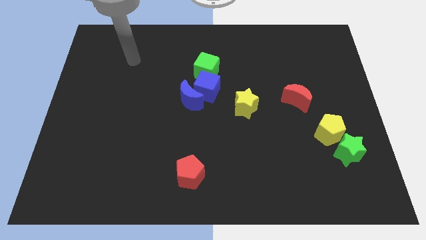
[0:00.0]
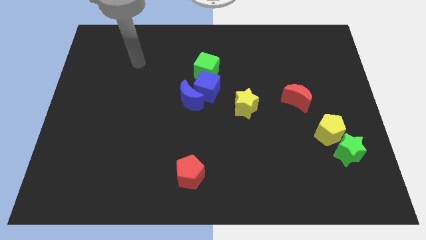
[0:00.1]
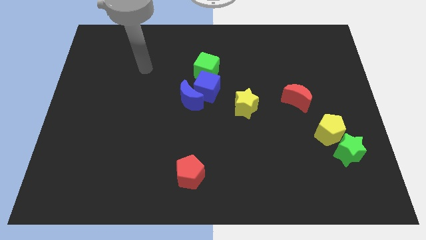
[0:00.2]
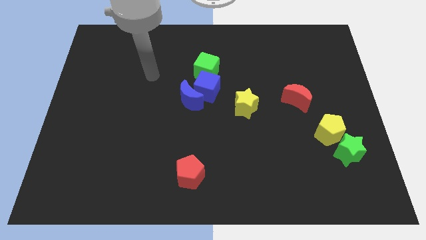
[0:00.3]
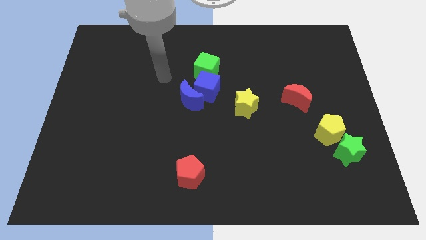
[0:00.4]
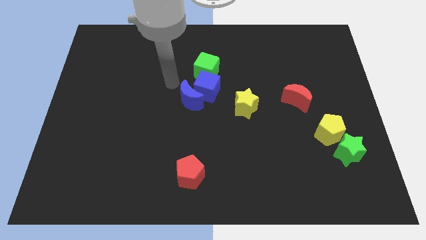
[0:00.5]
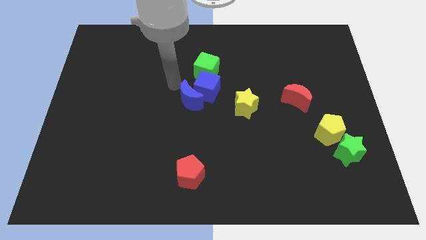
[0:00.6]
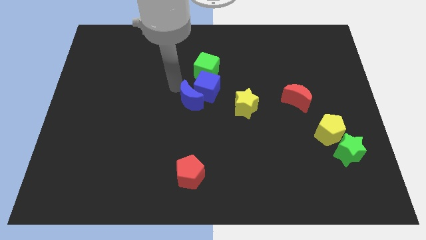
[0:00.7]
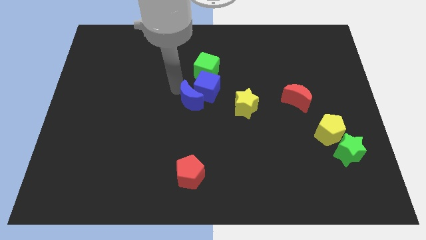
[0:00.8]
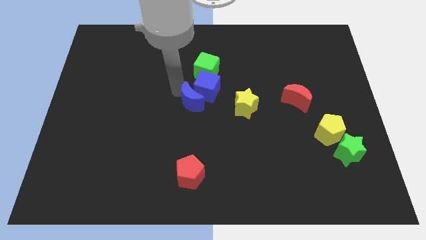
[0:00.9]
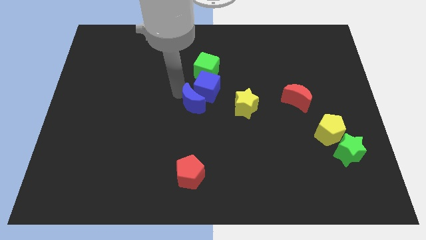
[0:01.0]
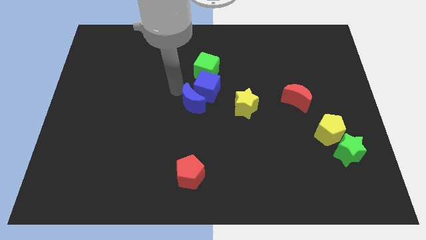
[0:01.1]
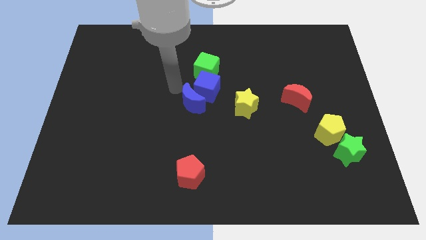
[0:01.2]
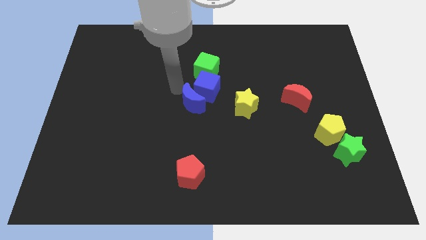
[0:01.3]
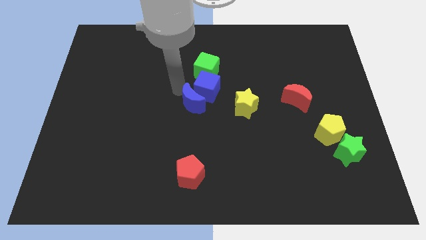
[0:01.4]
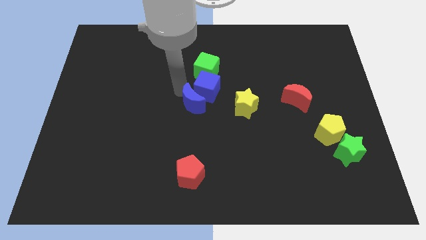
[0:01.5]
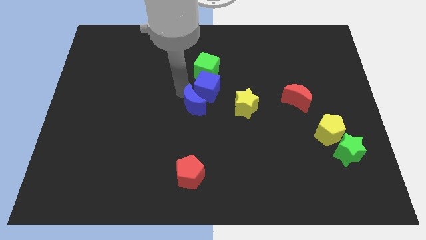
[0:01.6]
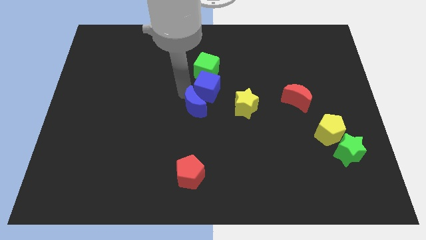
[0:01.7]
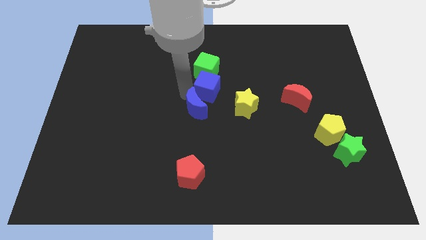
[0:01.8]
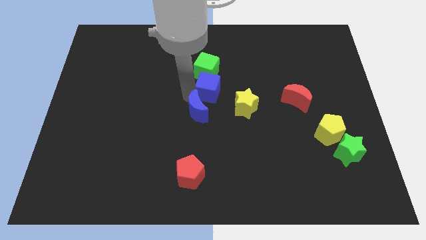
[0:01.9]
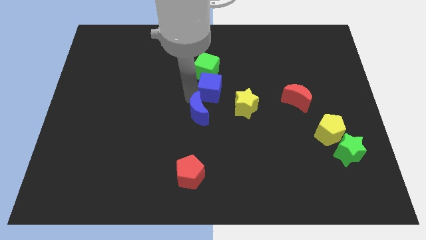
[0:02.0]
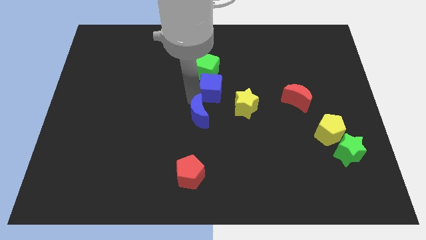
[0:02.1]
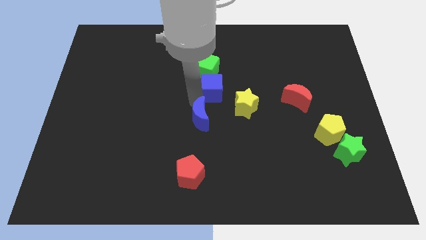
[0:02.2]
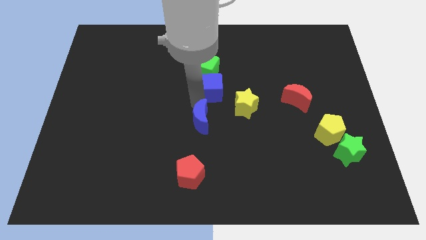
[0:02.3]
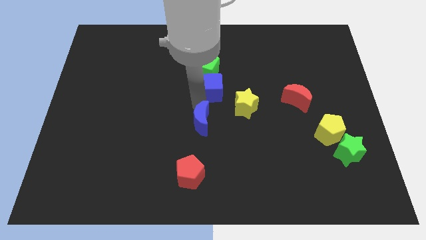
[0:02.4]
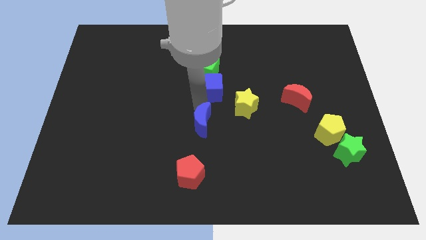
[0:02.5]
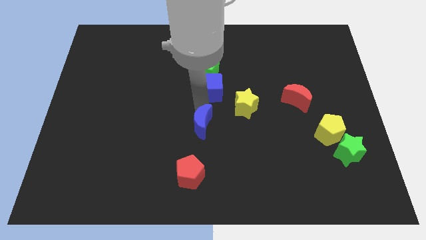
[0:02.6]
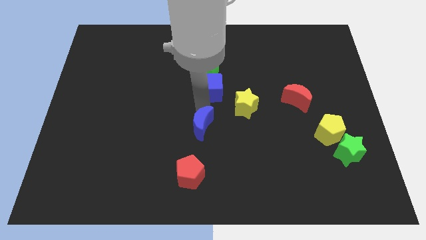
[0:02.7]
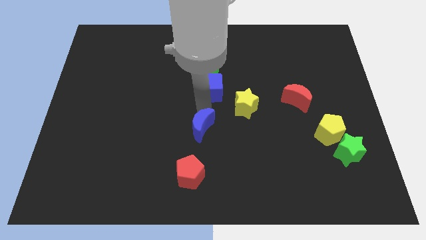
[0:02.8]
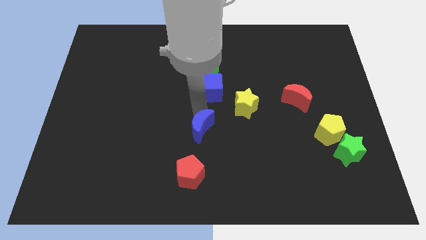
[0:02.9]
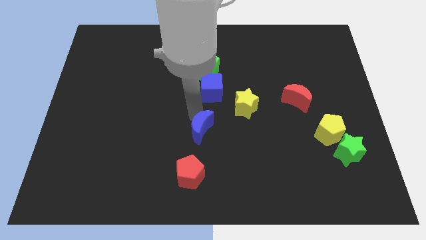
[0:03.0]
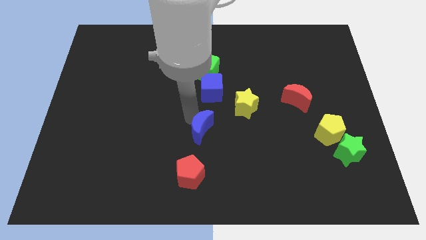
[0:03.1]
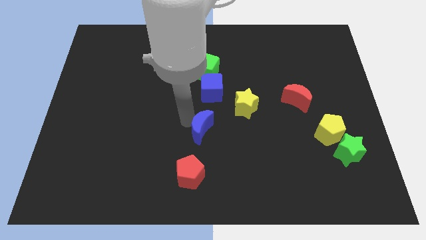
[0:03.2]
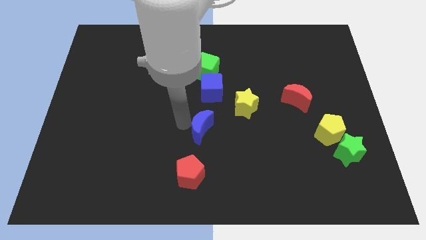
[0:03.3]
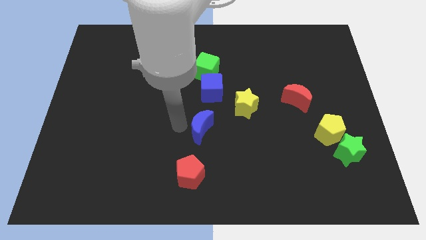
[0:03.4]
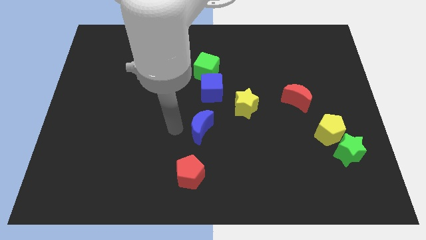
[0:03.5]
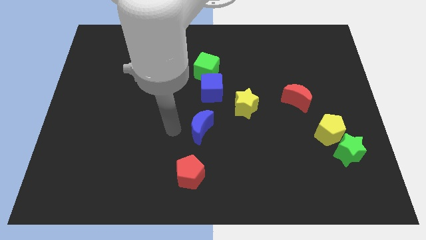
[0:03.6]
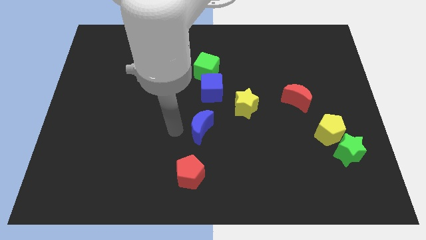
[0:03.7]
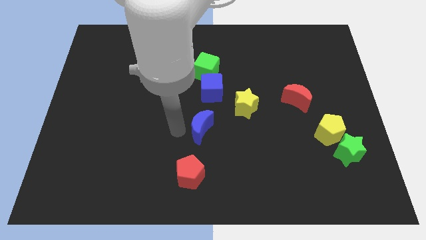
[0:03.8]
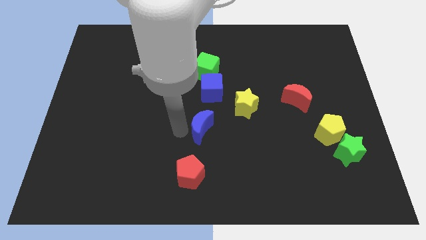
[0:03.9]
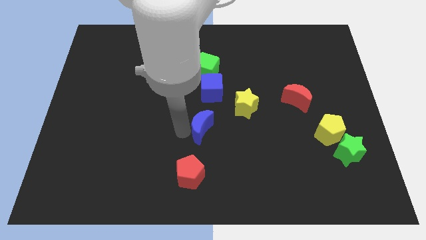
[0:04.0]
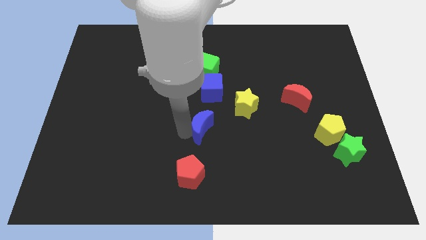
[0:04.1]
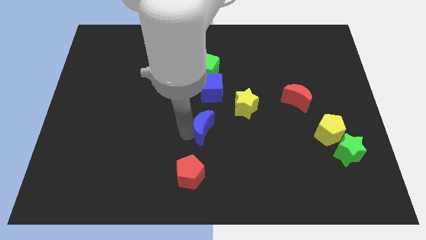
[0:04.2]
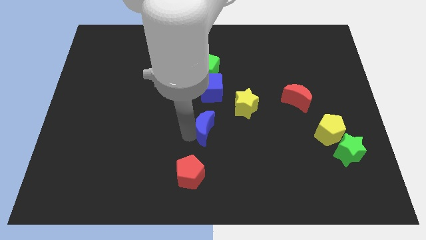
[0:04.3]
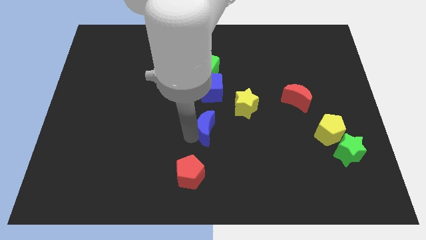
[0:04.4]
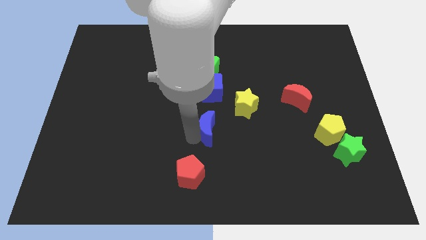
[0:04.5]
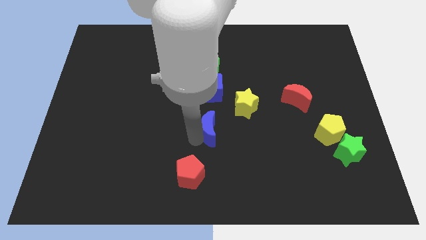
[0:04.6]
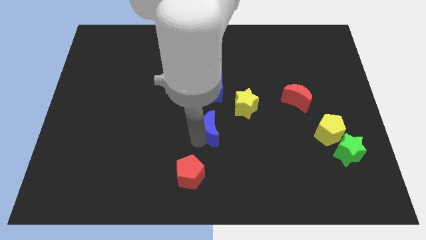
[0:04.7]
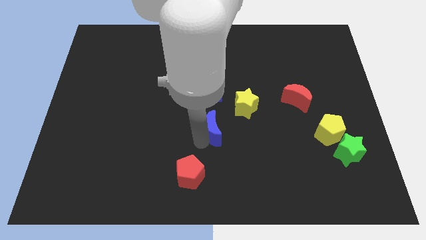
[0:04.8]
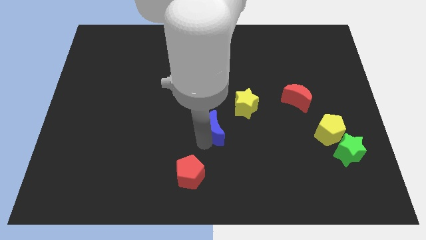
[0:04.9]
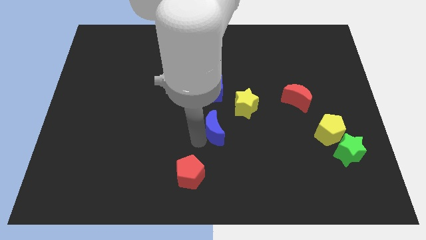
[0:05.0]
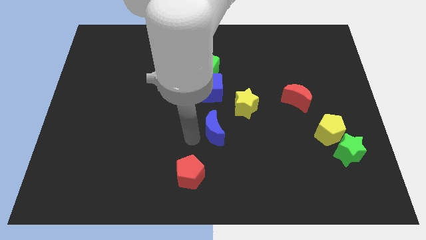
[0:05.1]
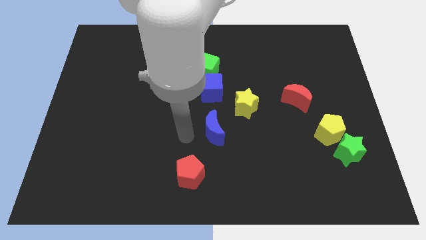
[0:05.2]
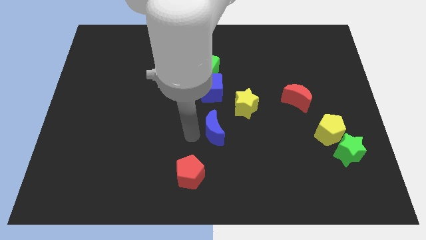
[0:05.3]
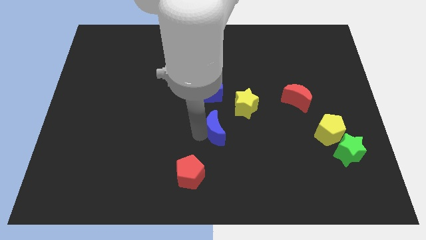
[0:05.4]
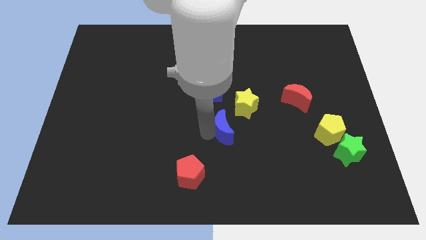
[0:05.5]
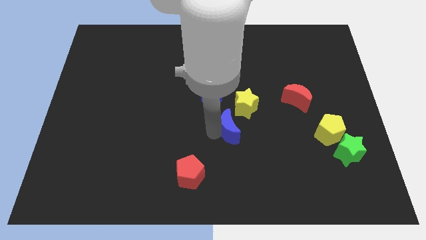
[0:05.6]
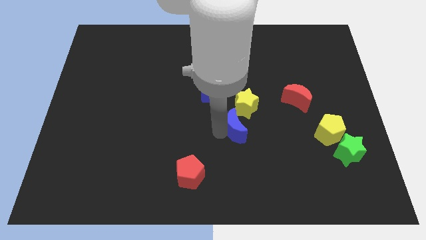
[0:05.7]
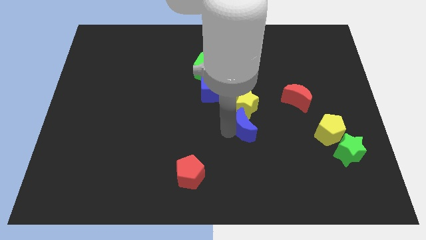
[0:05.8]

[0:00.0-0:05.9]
push the blue moon diagonally down and to the right of the yellow star

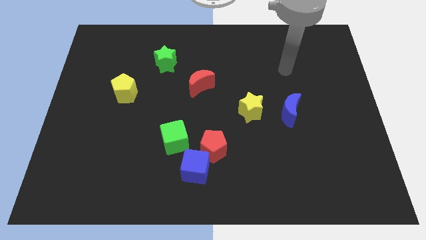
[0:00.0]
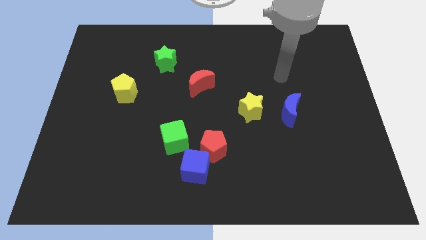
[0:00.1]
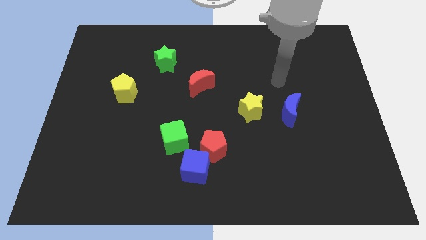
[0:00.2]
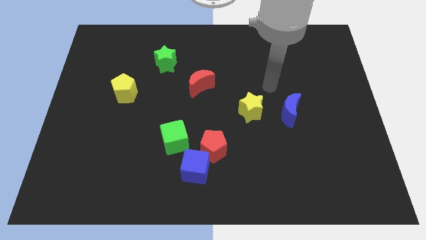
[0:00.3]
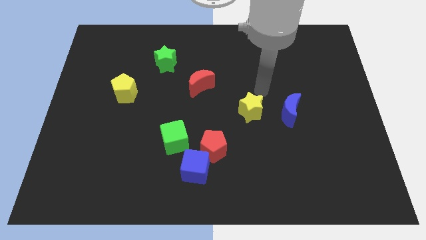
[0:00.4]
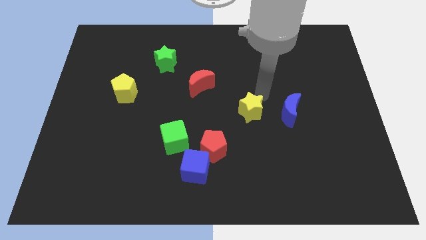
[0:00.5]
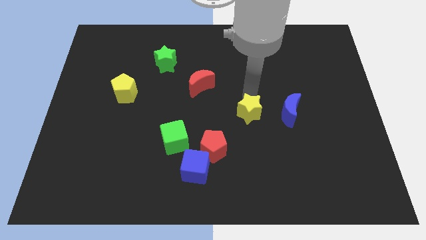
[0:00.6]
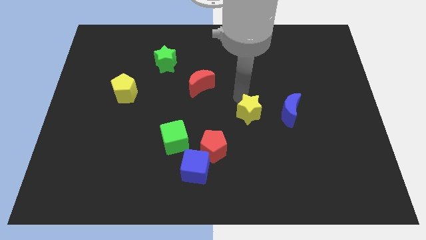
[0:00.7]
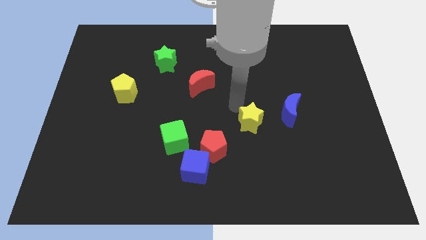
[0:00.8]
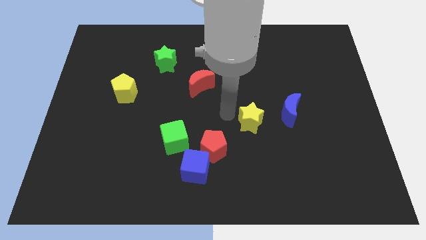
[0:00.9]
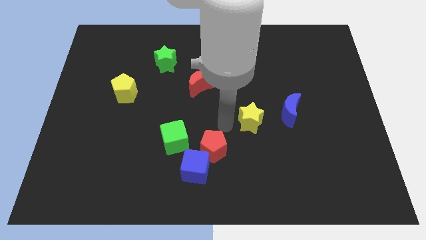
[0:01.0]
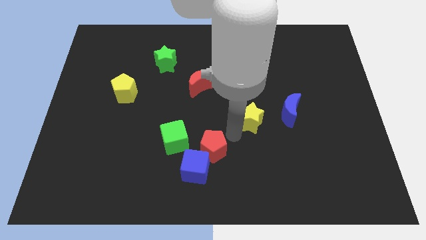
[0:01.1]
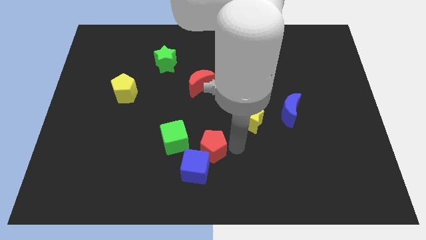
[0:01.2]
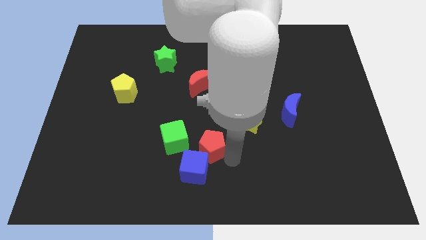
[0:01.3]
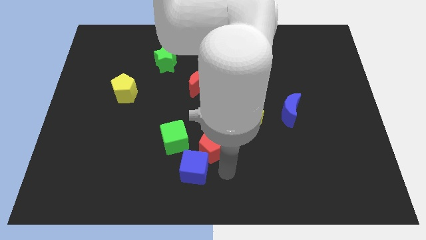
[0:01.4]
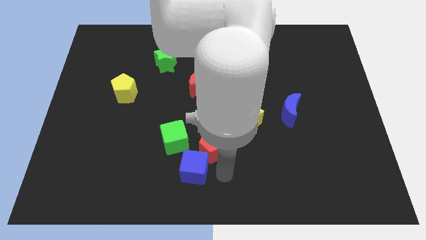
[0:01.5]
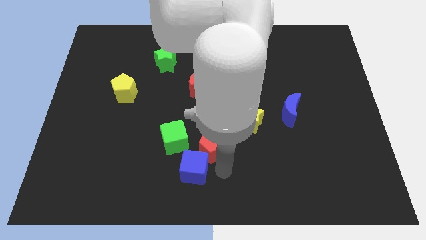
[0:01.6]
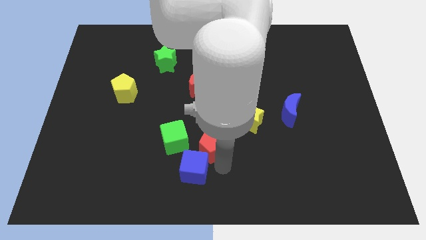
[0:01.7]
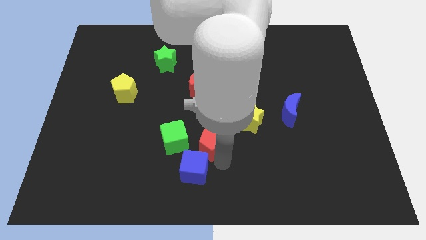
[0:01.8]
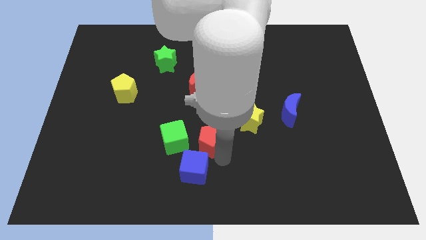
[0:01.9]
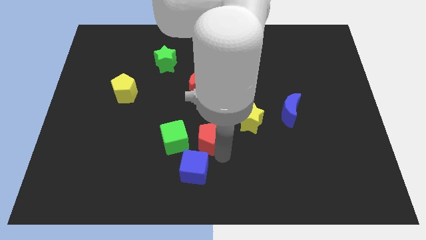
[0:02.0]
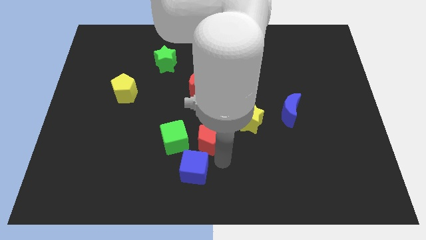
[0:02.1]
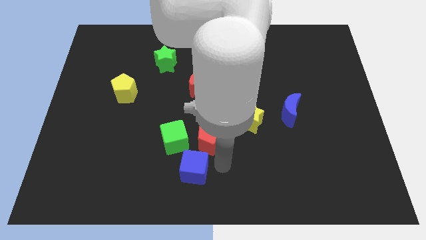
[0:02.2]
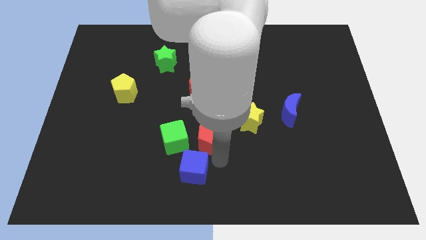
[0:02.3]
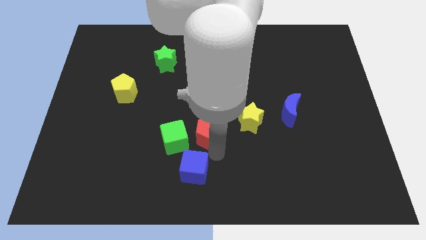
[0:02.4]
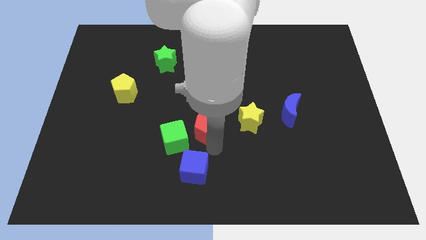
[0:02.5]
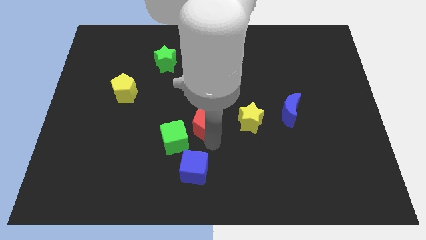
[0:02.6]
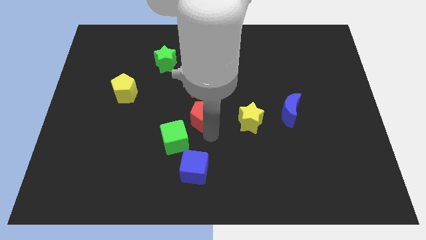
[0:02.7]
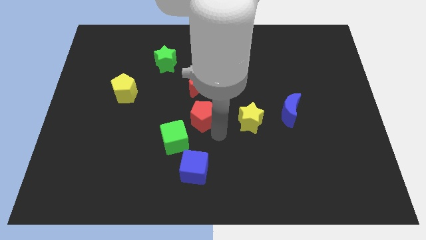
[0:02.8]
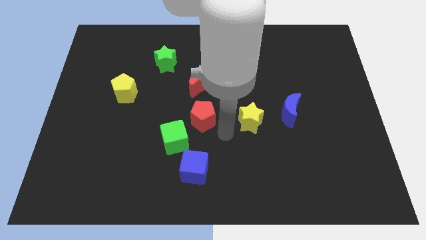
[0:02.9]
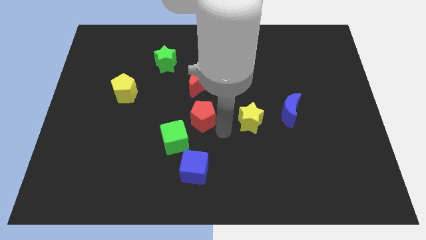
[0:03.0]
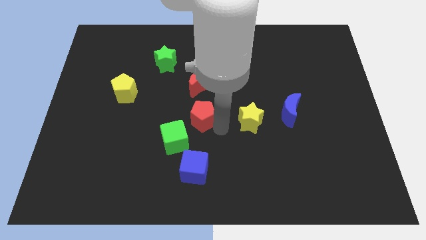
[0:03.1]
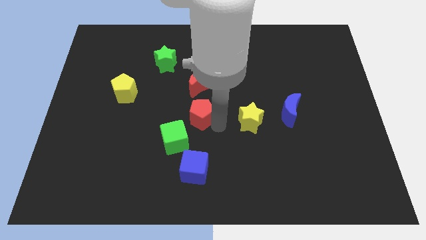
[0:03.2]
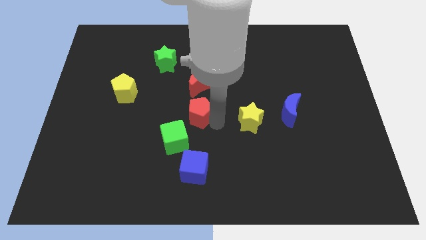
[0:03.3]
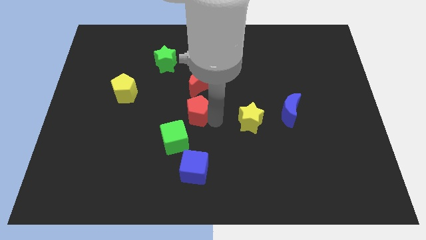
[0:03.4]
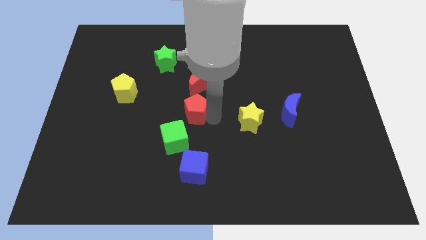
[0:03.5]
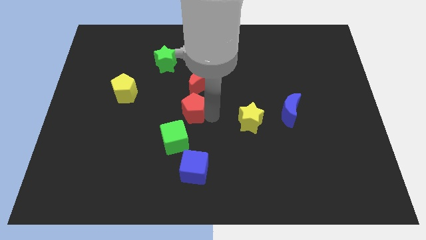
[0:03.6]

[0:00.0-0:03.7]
slide the red pentagon to the bottom left of the red moon
